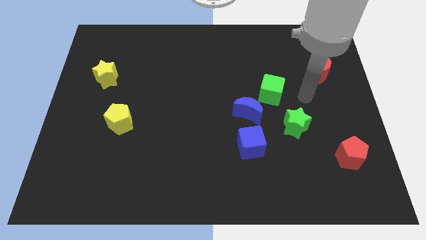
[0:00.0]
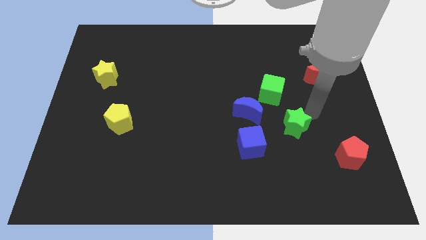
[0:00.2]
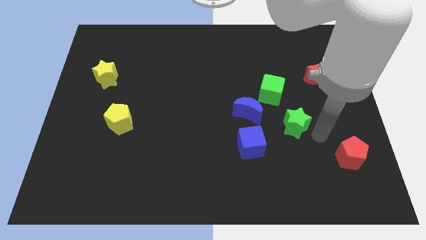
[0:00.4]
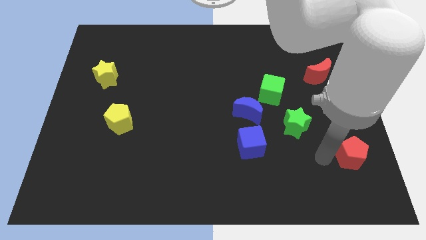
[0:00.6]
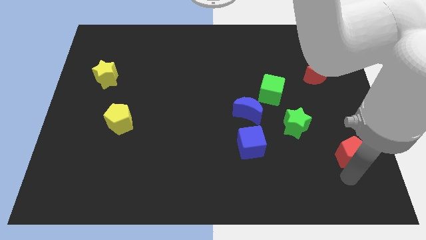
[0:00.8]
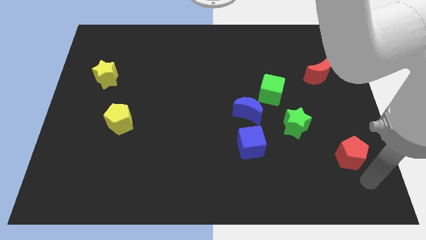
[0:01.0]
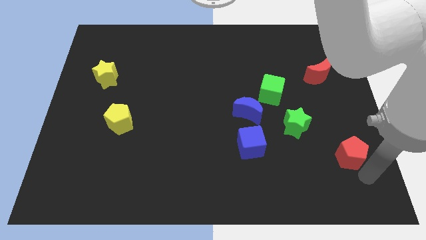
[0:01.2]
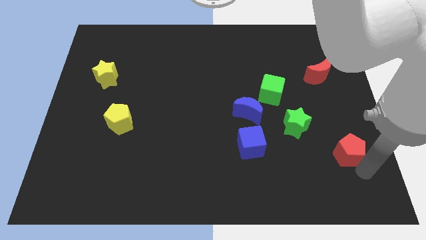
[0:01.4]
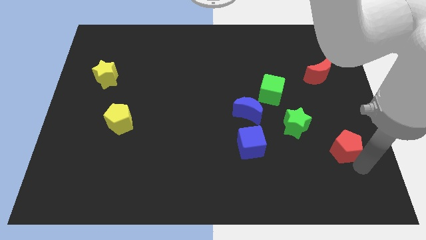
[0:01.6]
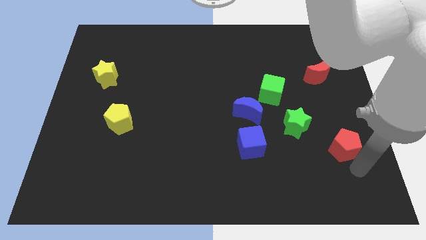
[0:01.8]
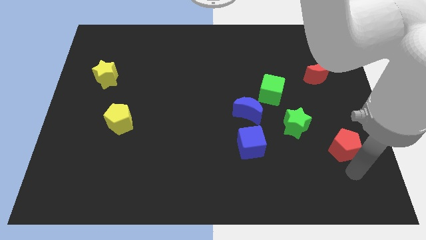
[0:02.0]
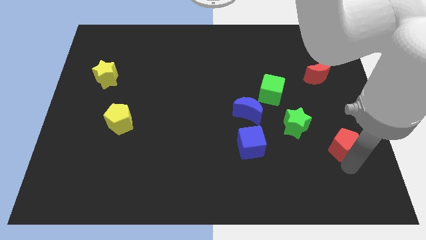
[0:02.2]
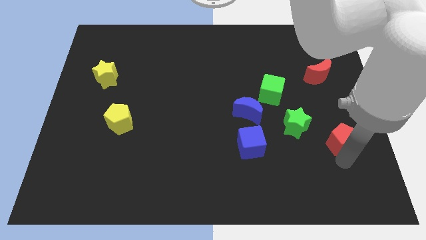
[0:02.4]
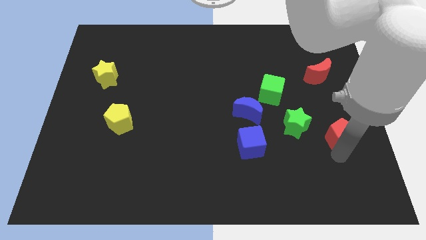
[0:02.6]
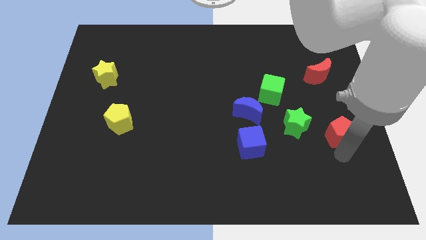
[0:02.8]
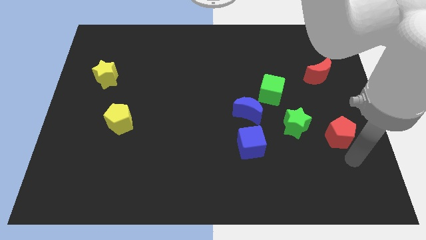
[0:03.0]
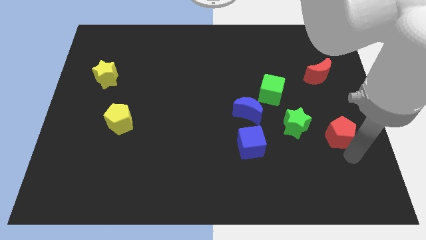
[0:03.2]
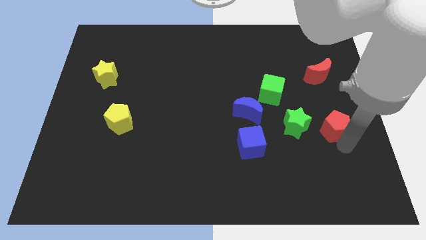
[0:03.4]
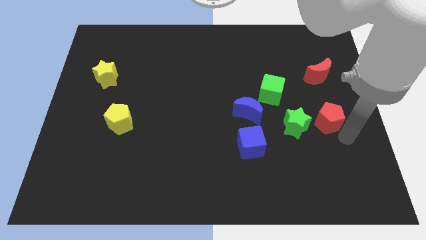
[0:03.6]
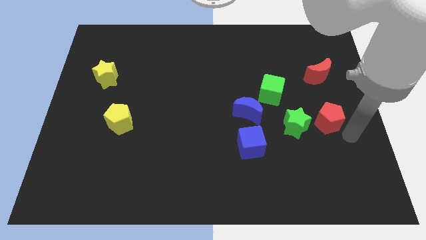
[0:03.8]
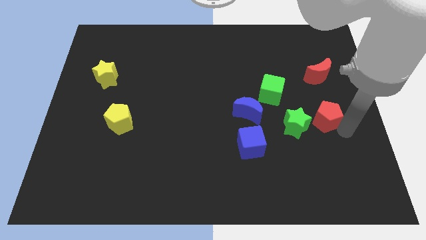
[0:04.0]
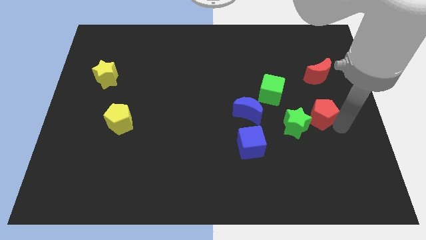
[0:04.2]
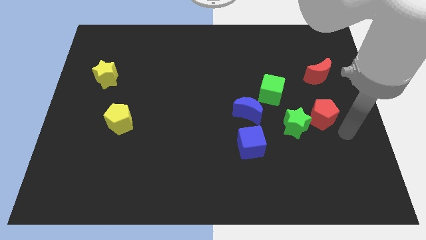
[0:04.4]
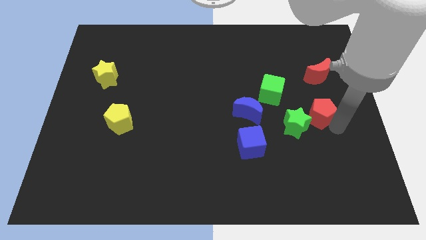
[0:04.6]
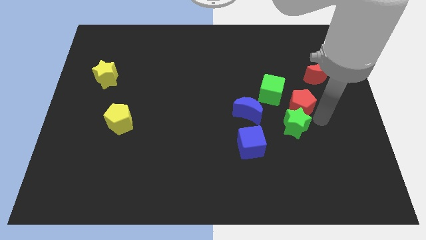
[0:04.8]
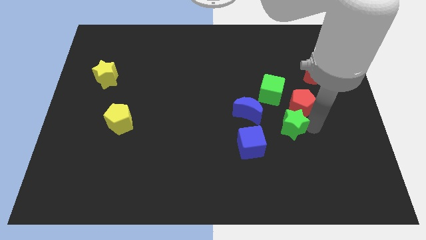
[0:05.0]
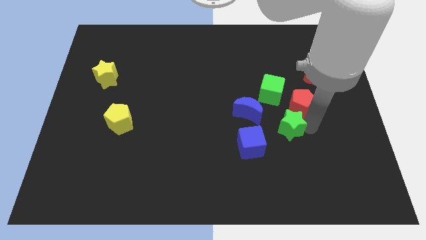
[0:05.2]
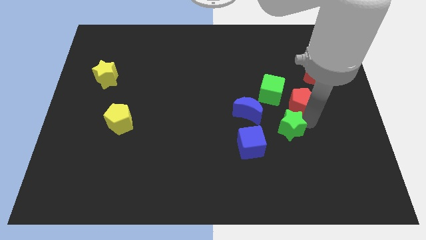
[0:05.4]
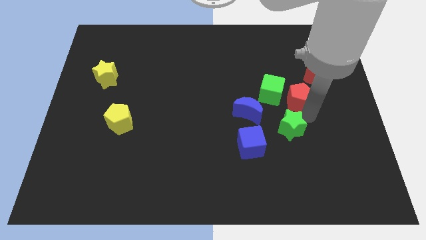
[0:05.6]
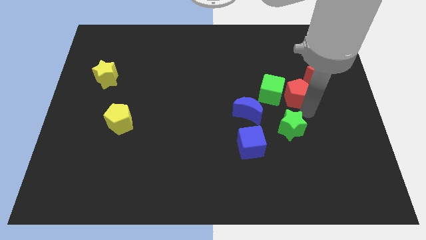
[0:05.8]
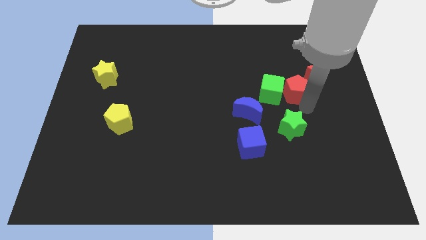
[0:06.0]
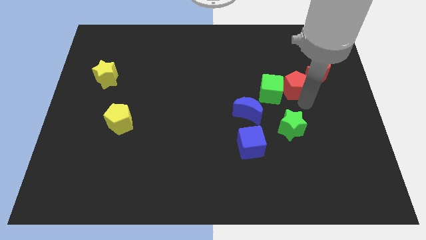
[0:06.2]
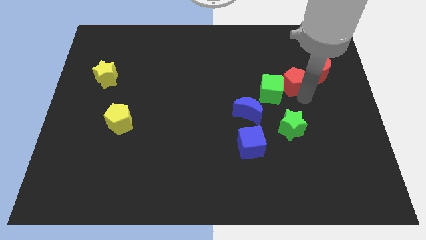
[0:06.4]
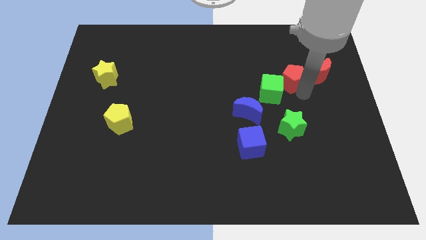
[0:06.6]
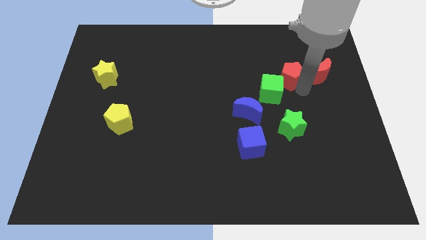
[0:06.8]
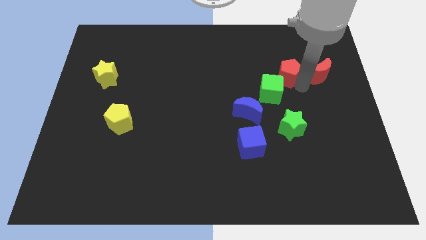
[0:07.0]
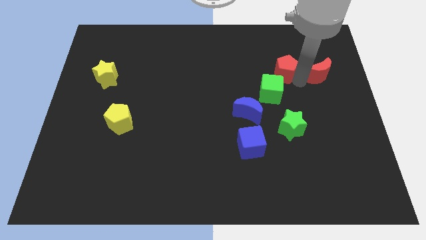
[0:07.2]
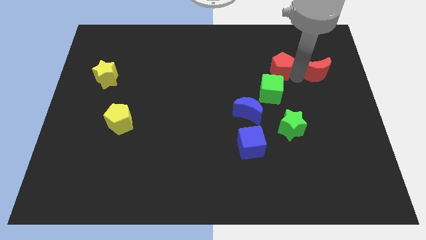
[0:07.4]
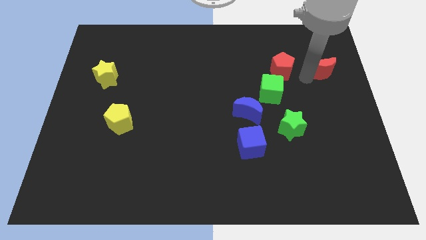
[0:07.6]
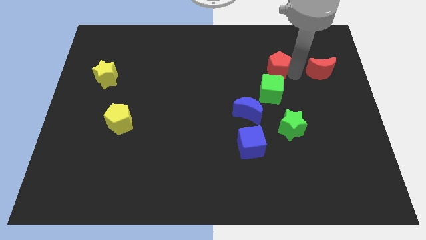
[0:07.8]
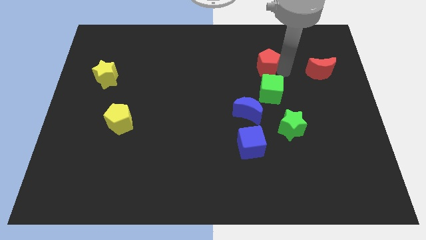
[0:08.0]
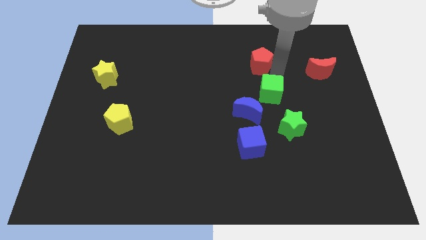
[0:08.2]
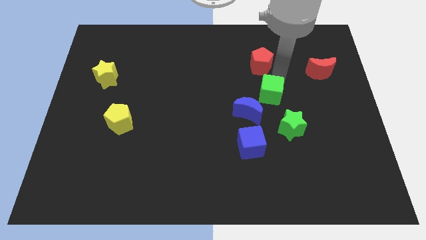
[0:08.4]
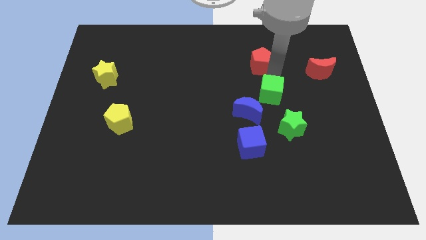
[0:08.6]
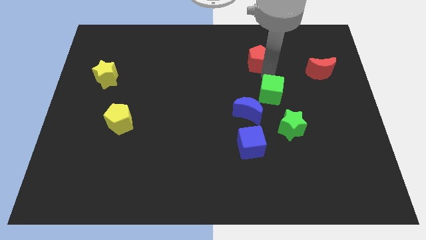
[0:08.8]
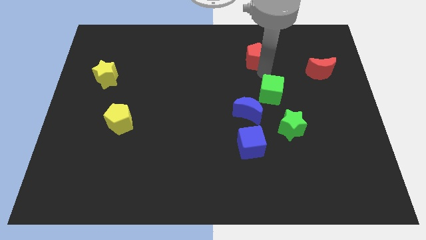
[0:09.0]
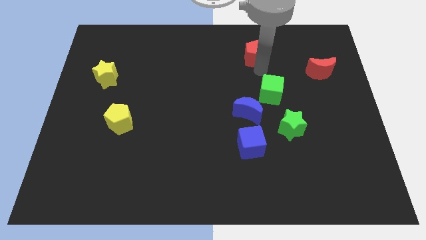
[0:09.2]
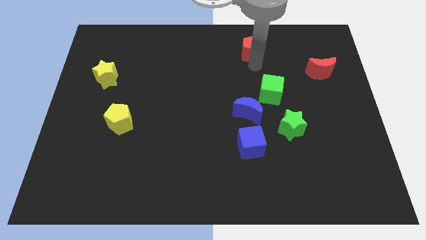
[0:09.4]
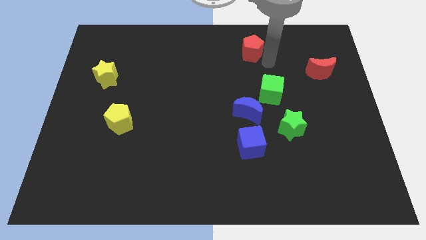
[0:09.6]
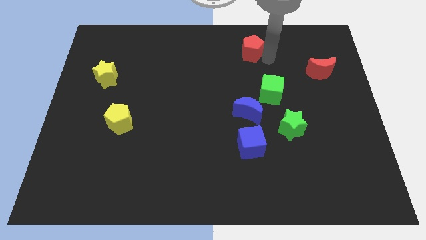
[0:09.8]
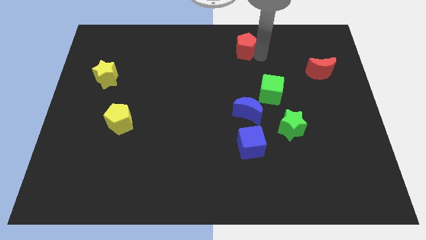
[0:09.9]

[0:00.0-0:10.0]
slide the red pentagon to the top

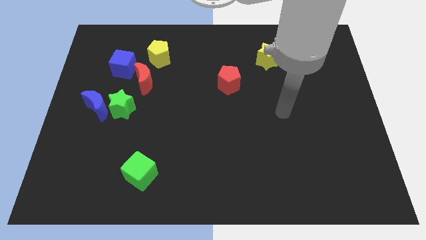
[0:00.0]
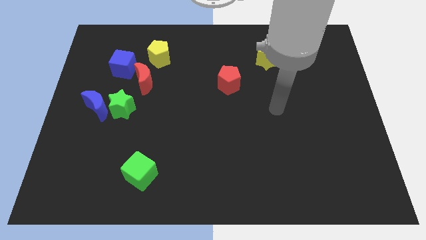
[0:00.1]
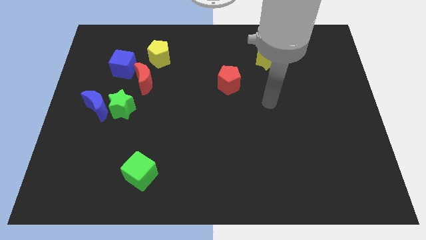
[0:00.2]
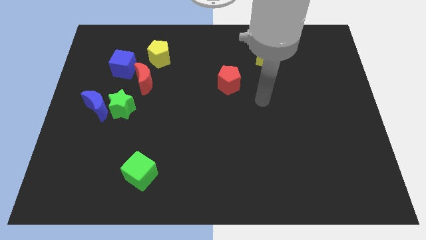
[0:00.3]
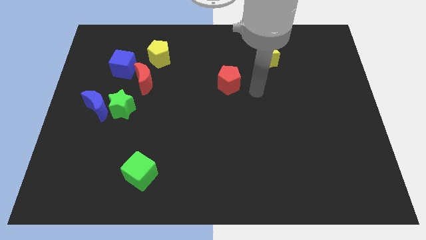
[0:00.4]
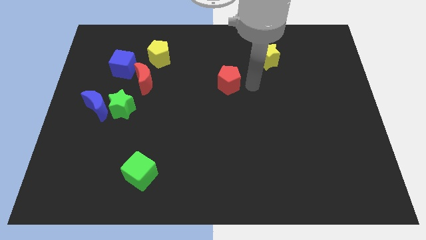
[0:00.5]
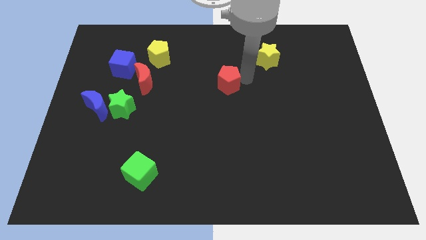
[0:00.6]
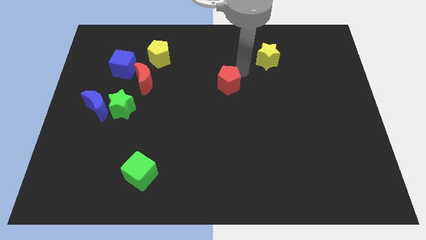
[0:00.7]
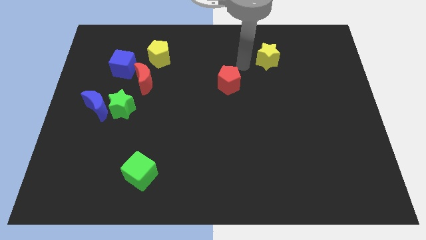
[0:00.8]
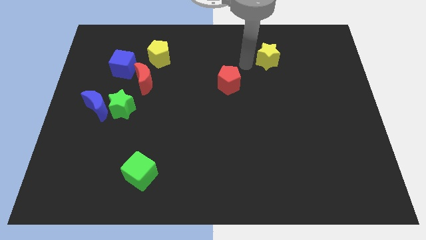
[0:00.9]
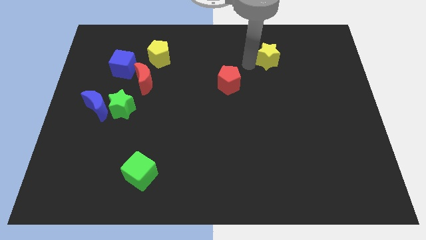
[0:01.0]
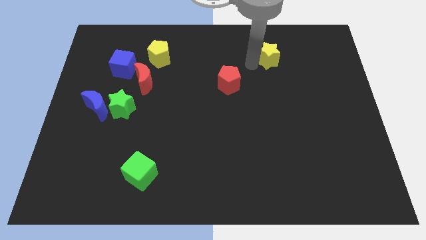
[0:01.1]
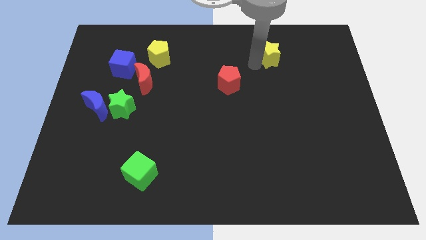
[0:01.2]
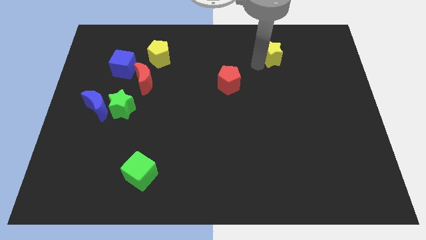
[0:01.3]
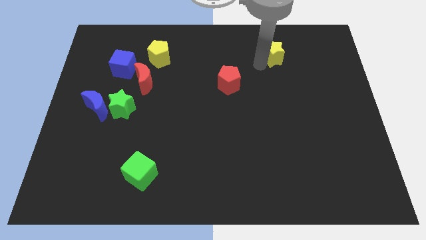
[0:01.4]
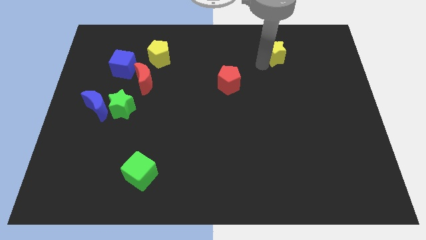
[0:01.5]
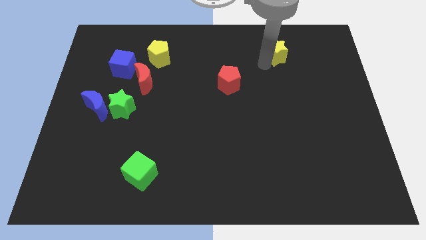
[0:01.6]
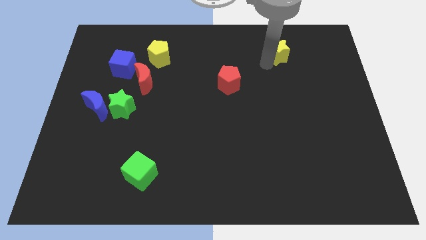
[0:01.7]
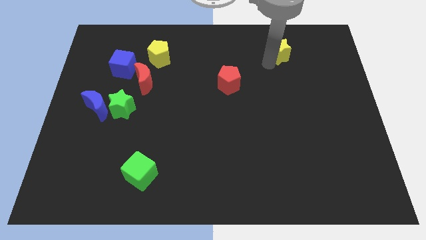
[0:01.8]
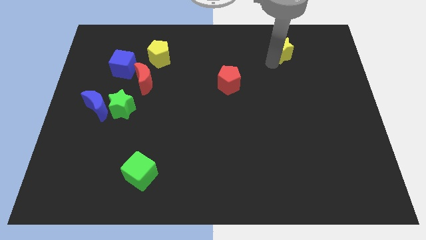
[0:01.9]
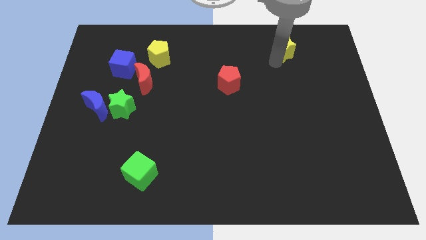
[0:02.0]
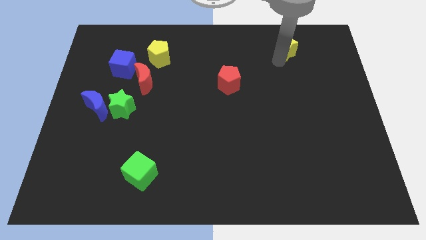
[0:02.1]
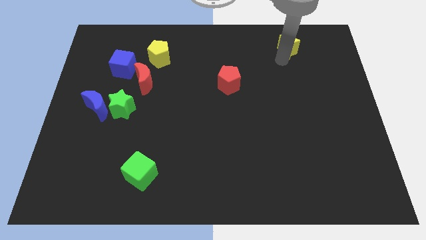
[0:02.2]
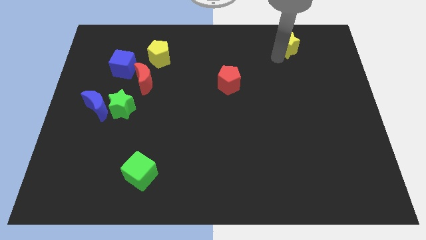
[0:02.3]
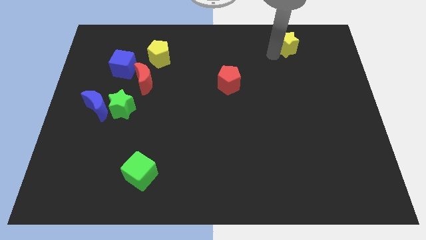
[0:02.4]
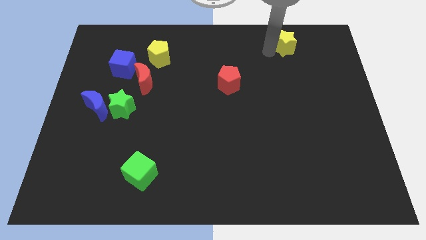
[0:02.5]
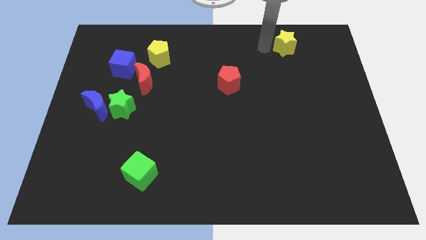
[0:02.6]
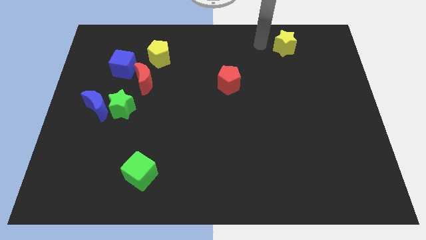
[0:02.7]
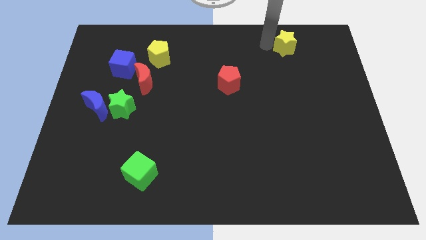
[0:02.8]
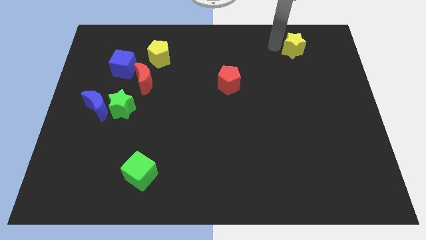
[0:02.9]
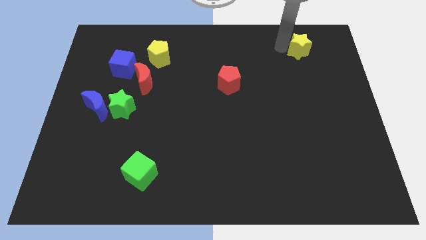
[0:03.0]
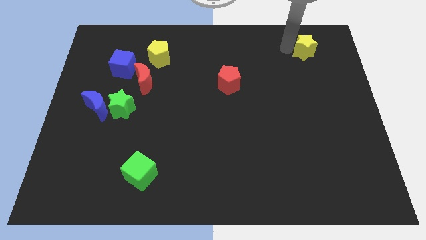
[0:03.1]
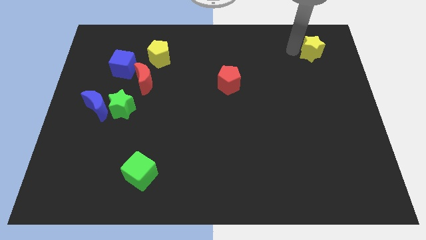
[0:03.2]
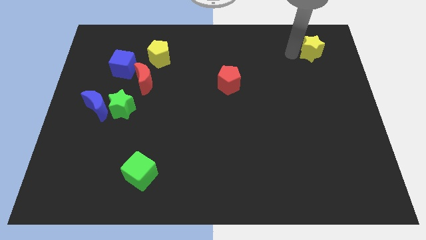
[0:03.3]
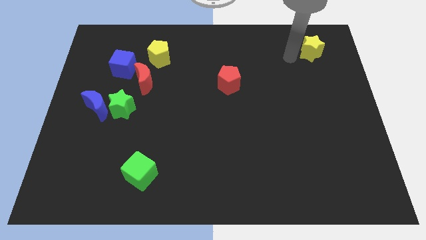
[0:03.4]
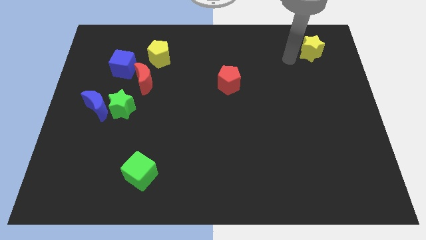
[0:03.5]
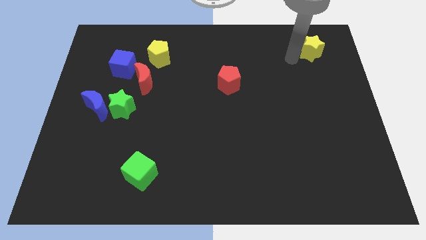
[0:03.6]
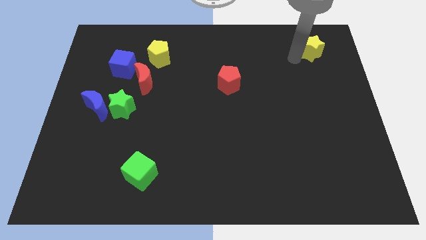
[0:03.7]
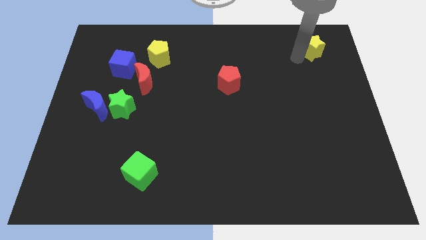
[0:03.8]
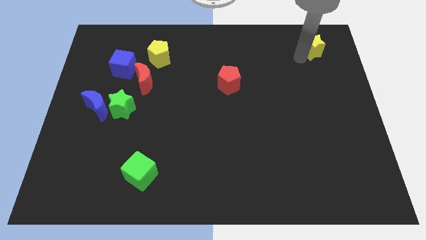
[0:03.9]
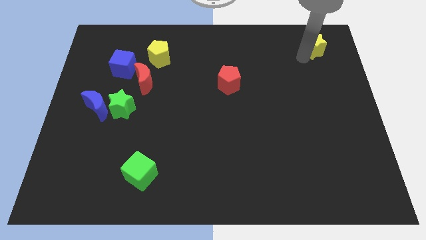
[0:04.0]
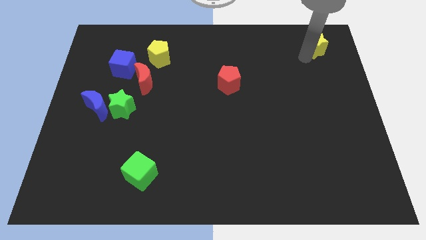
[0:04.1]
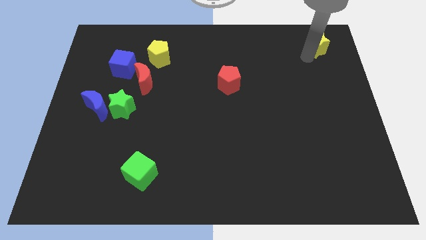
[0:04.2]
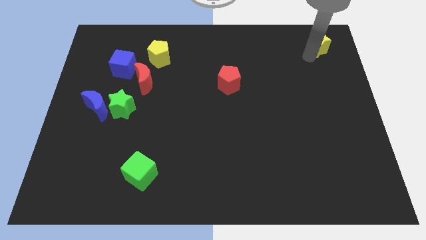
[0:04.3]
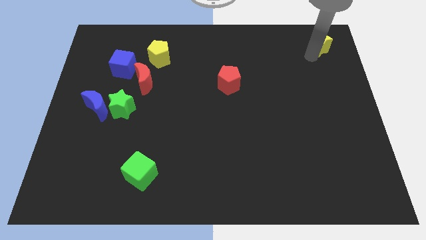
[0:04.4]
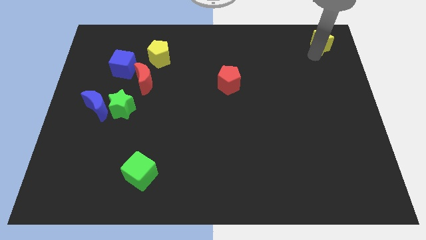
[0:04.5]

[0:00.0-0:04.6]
put the yellow star to the upper right corner
